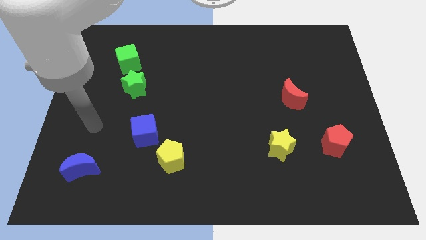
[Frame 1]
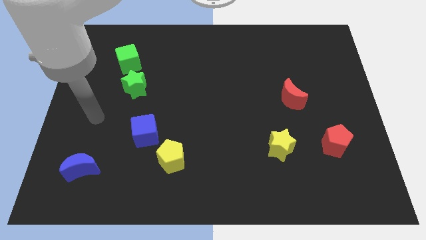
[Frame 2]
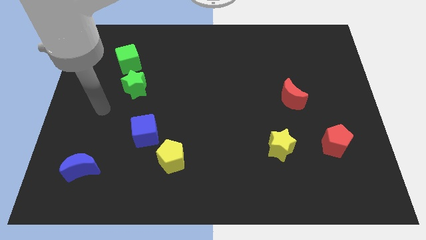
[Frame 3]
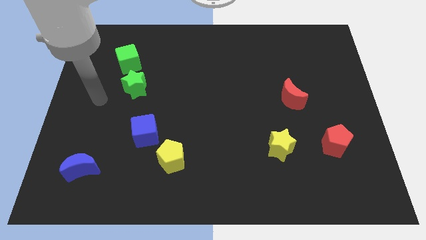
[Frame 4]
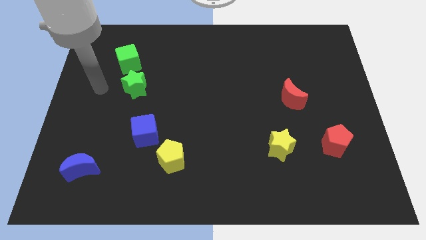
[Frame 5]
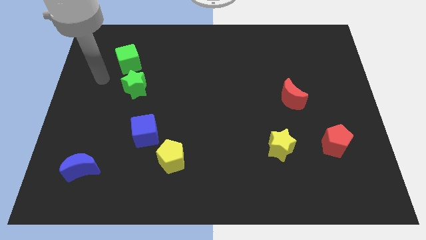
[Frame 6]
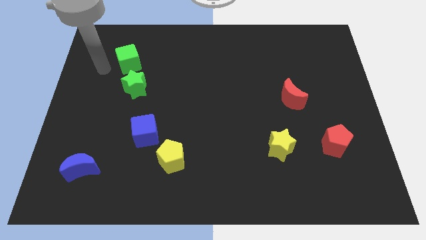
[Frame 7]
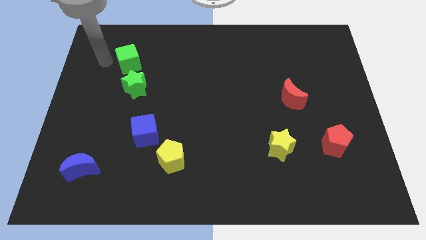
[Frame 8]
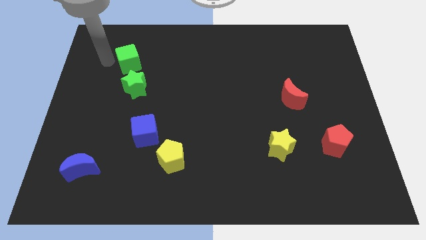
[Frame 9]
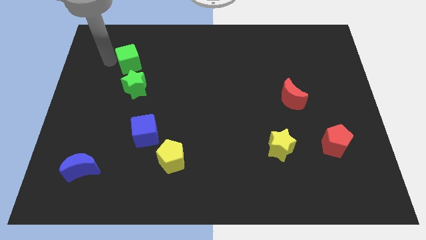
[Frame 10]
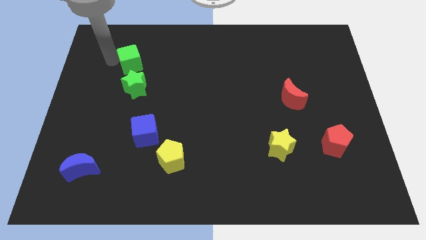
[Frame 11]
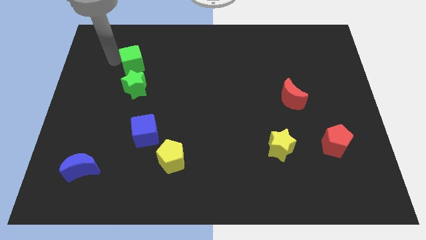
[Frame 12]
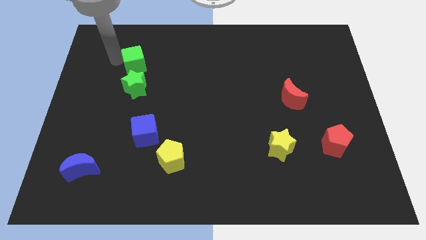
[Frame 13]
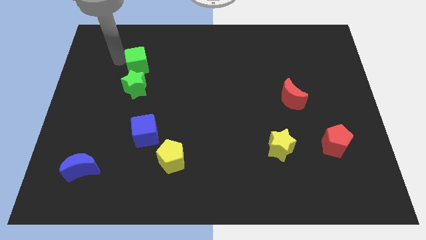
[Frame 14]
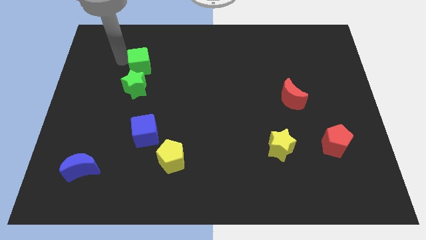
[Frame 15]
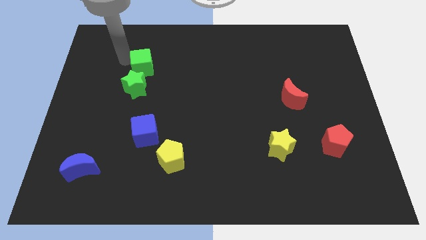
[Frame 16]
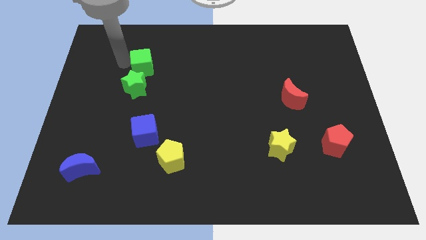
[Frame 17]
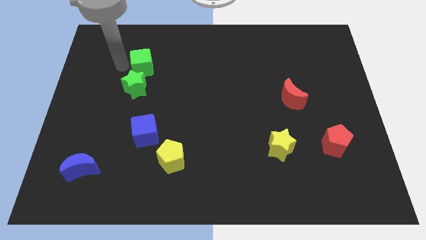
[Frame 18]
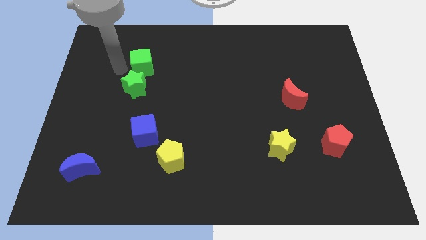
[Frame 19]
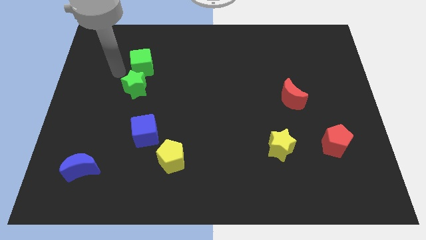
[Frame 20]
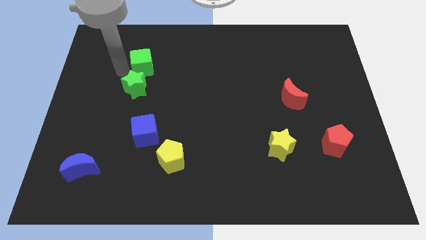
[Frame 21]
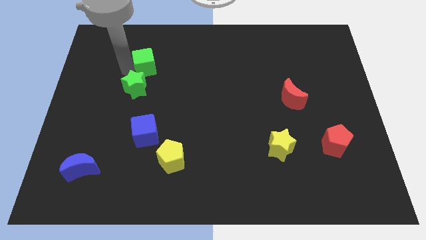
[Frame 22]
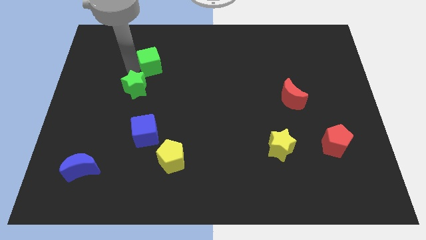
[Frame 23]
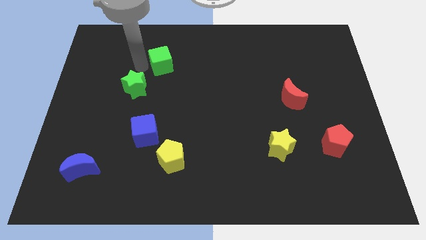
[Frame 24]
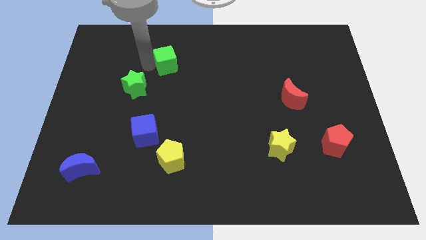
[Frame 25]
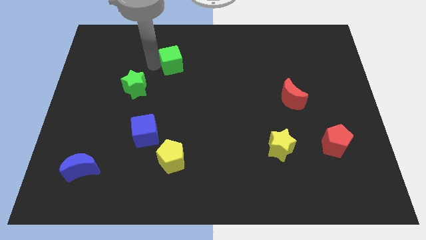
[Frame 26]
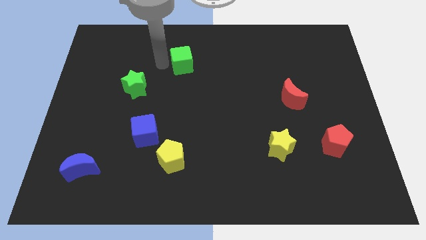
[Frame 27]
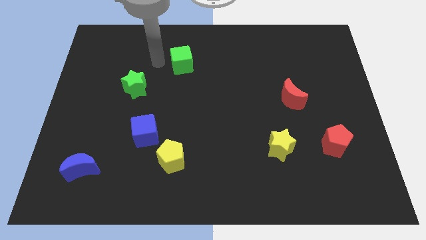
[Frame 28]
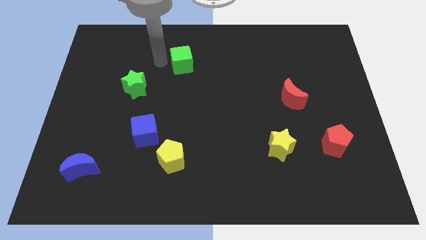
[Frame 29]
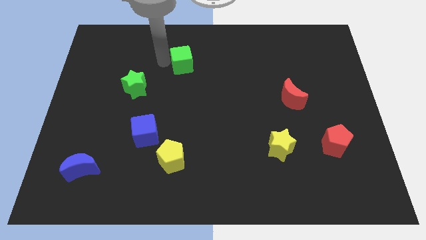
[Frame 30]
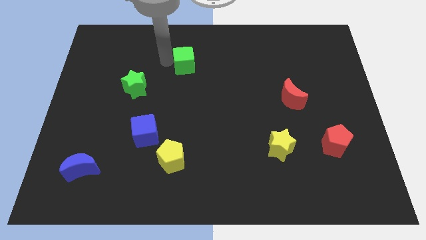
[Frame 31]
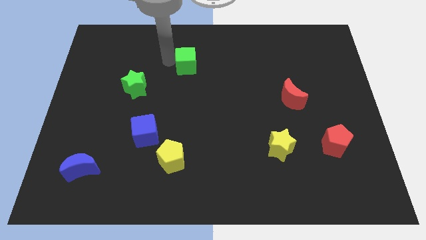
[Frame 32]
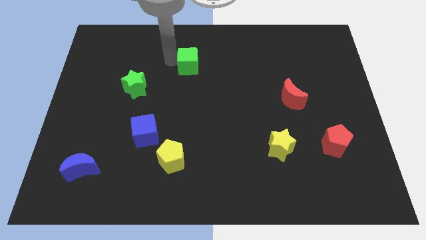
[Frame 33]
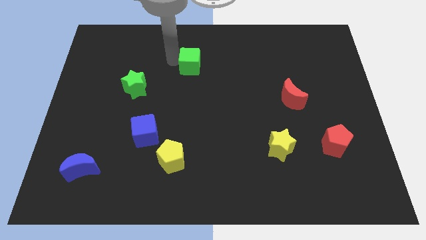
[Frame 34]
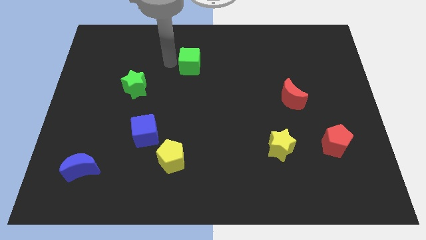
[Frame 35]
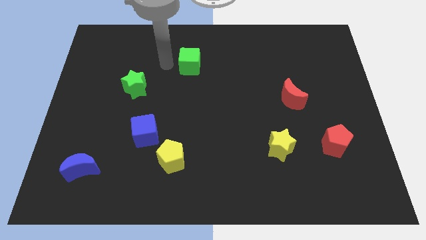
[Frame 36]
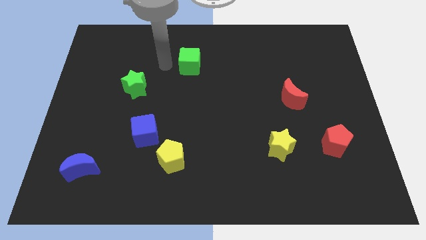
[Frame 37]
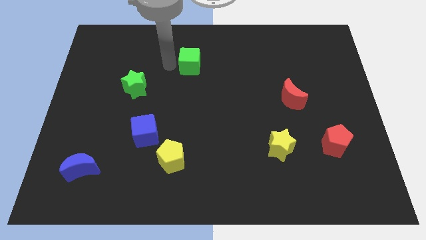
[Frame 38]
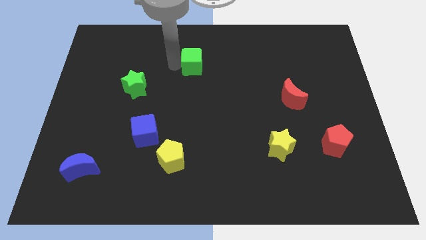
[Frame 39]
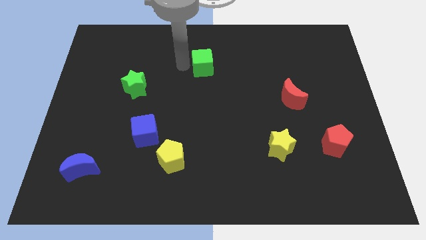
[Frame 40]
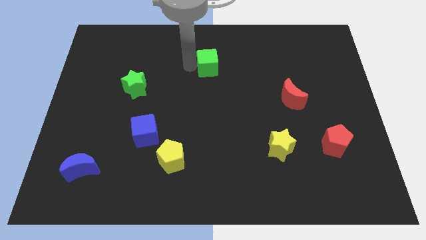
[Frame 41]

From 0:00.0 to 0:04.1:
push the green cube right

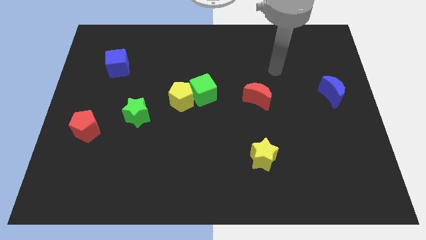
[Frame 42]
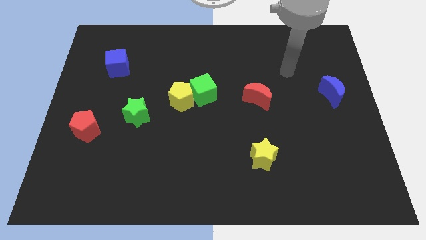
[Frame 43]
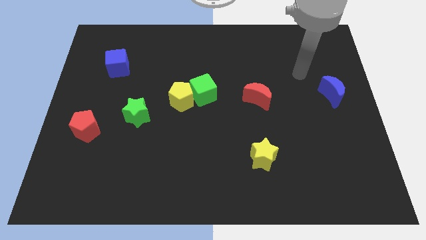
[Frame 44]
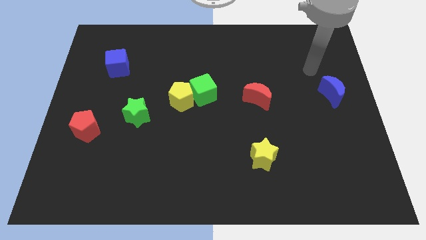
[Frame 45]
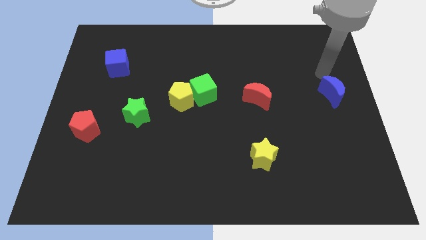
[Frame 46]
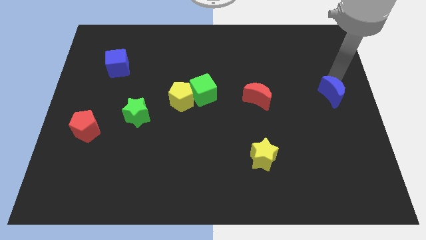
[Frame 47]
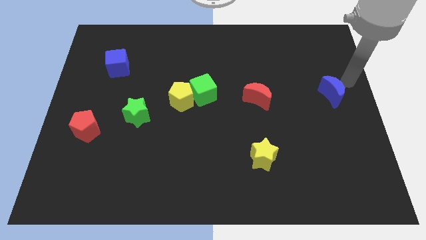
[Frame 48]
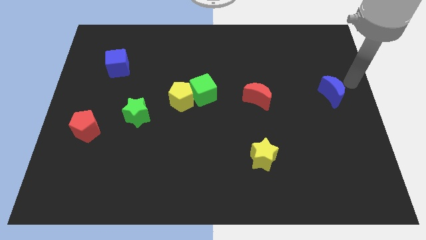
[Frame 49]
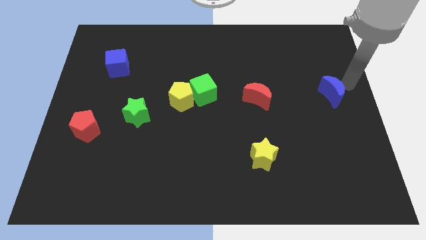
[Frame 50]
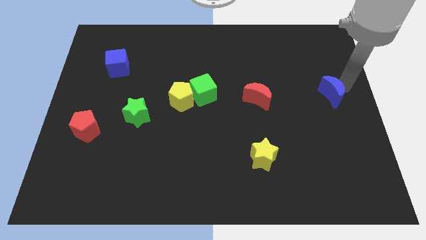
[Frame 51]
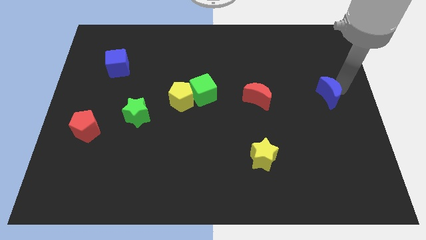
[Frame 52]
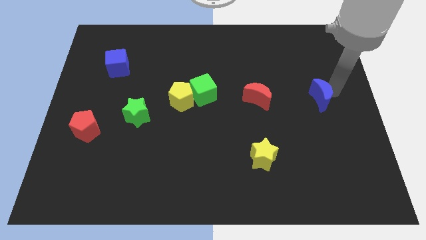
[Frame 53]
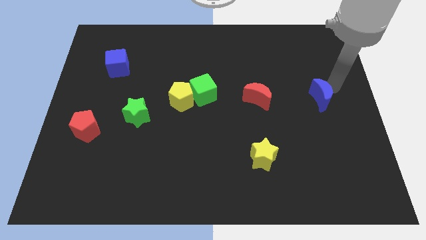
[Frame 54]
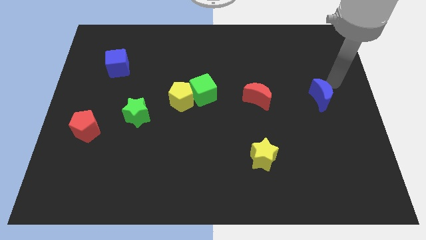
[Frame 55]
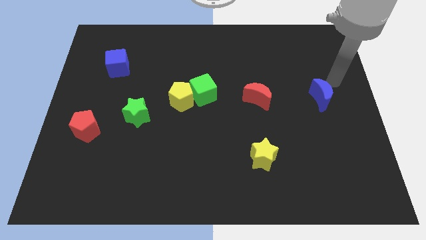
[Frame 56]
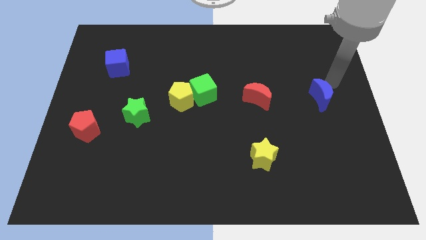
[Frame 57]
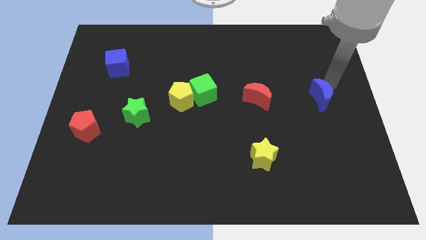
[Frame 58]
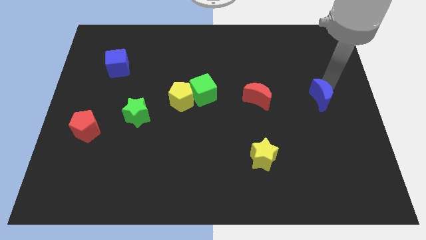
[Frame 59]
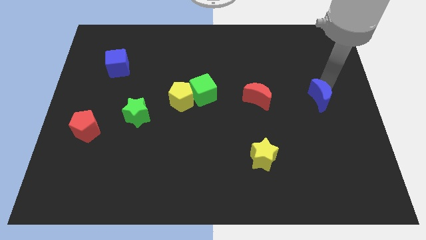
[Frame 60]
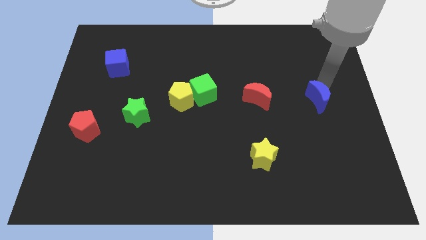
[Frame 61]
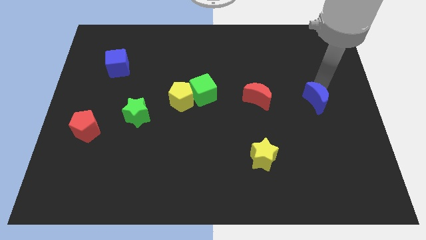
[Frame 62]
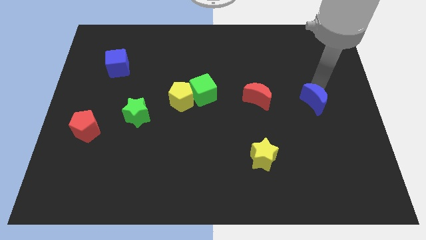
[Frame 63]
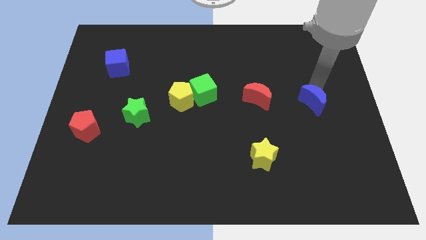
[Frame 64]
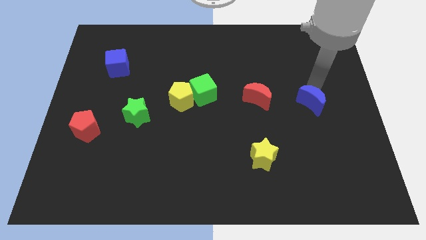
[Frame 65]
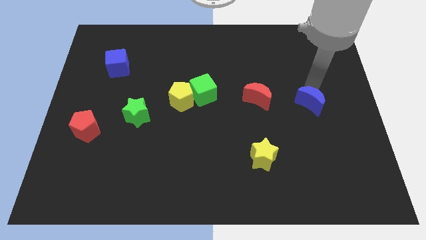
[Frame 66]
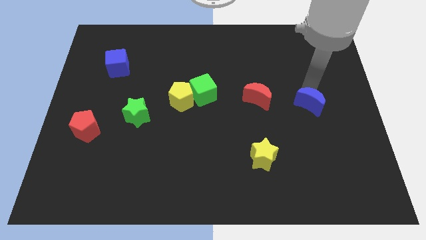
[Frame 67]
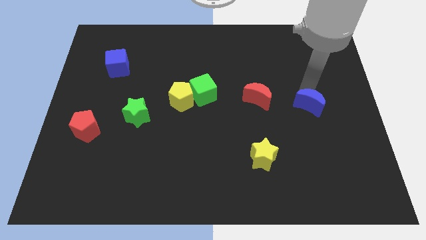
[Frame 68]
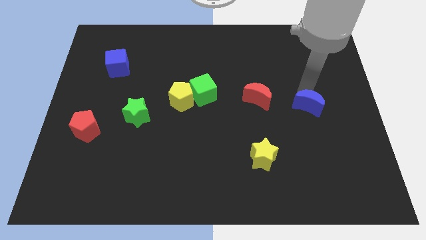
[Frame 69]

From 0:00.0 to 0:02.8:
move the blue moon down and to the left a bit

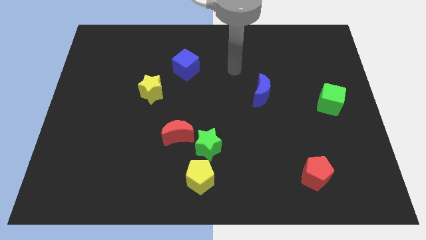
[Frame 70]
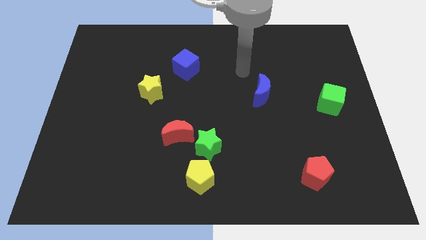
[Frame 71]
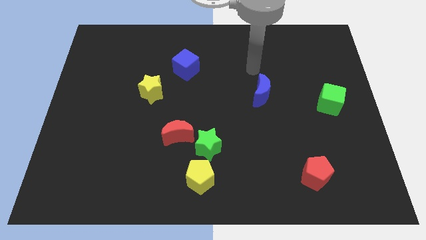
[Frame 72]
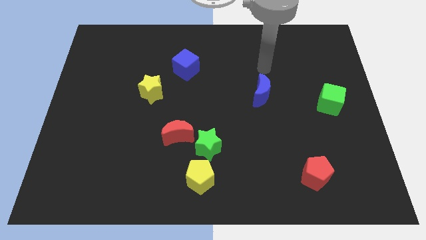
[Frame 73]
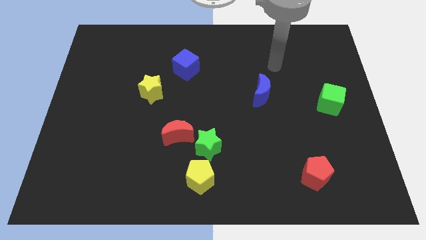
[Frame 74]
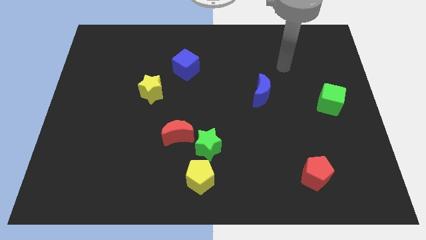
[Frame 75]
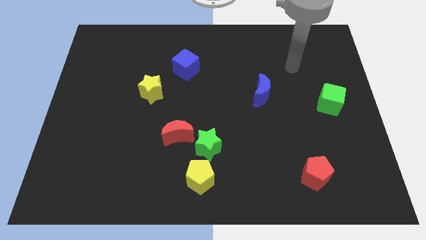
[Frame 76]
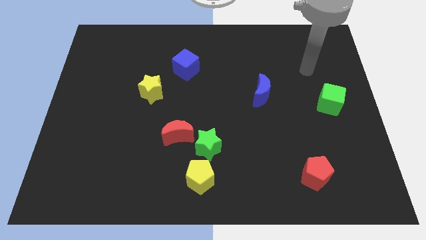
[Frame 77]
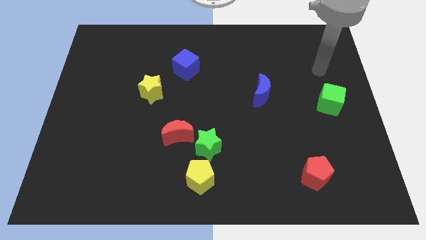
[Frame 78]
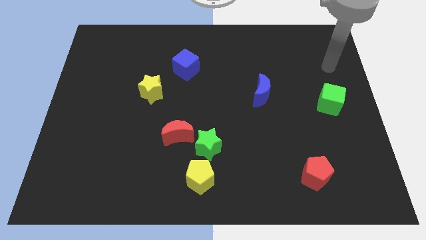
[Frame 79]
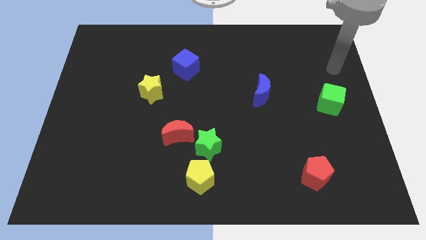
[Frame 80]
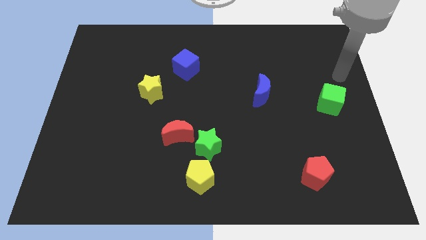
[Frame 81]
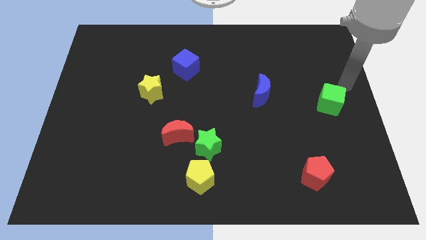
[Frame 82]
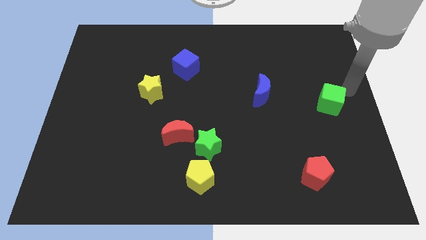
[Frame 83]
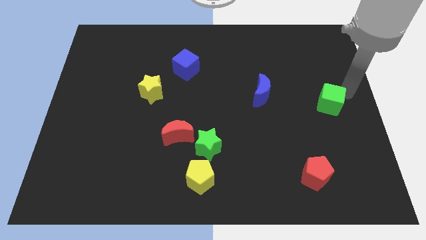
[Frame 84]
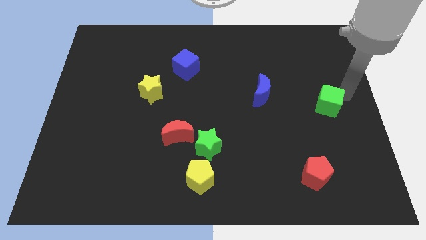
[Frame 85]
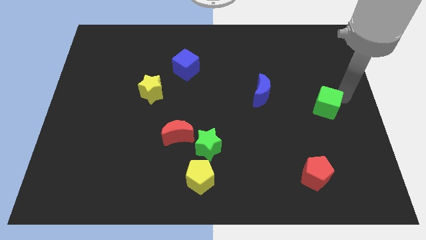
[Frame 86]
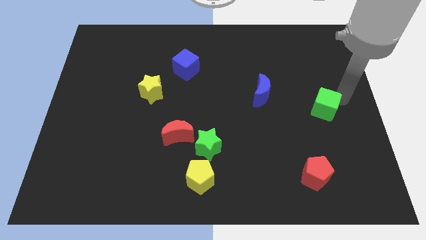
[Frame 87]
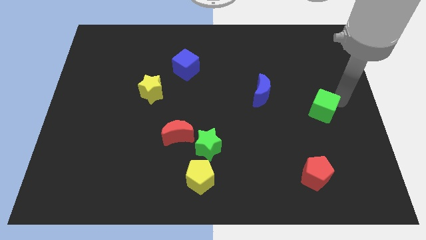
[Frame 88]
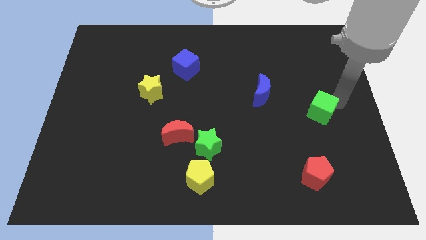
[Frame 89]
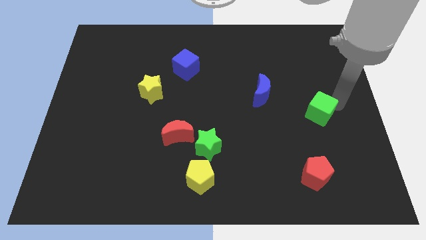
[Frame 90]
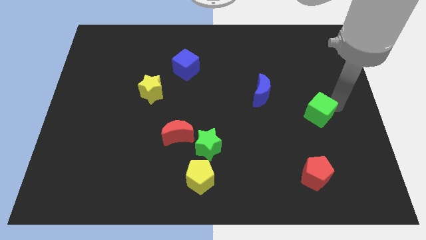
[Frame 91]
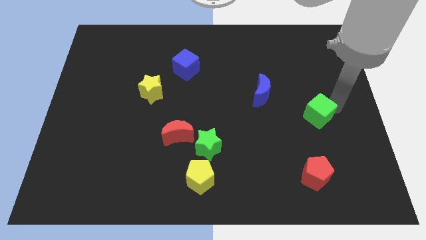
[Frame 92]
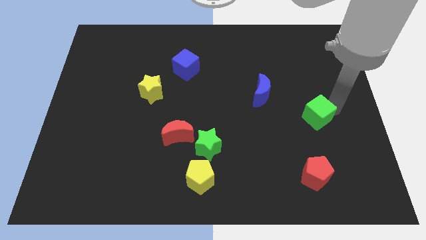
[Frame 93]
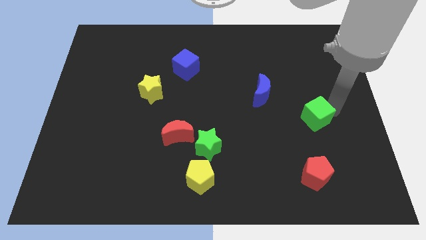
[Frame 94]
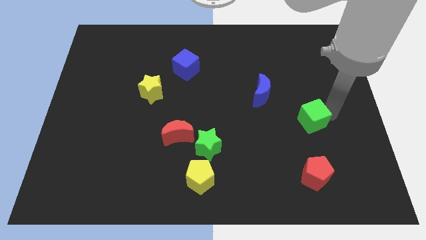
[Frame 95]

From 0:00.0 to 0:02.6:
move the green cube down and left diagonally a bit
